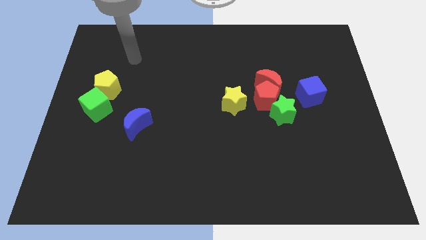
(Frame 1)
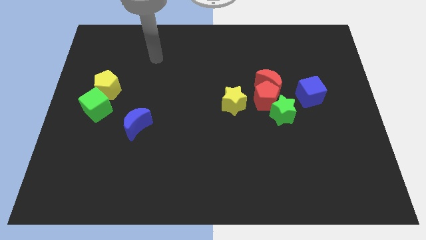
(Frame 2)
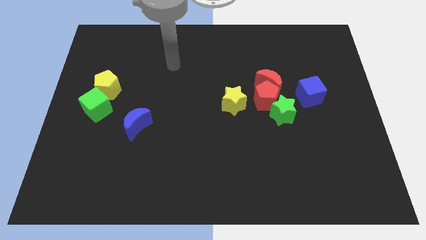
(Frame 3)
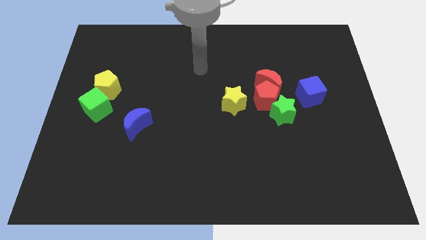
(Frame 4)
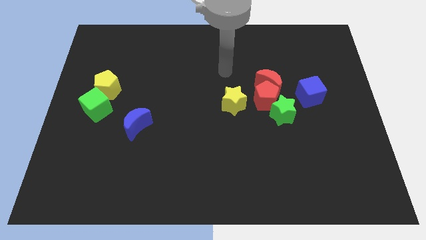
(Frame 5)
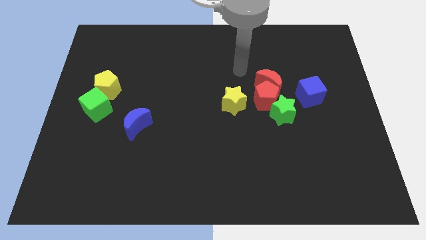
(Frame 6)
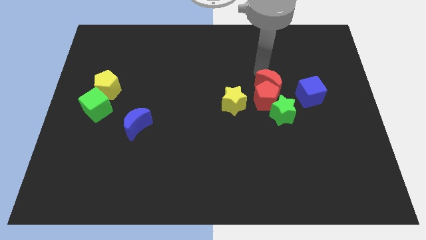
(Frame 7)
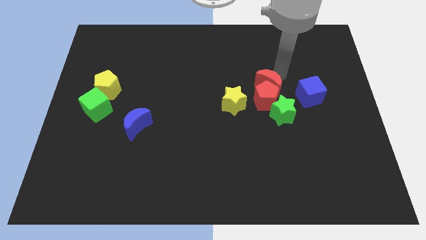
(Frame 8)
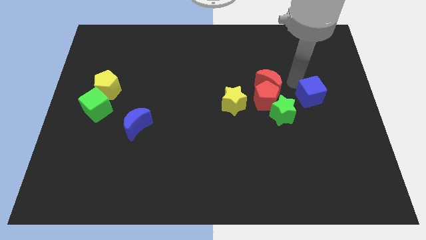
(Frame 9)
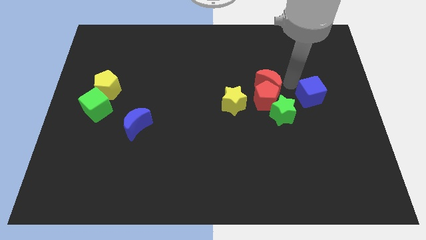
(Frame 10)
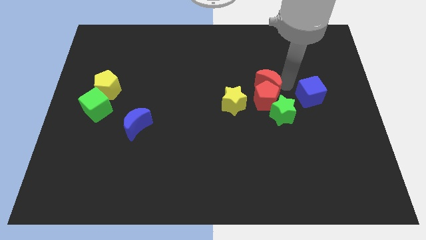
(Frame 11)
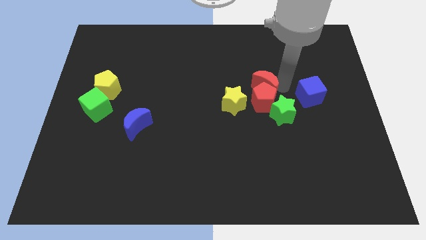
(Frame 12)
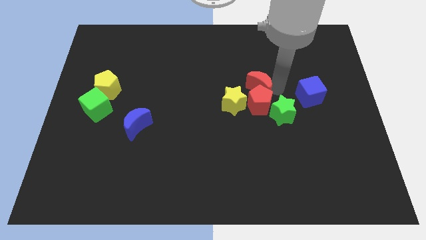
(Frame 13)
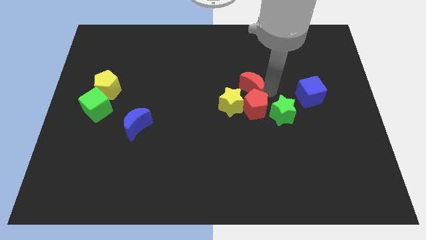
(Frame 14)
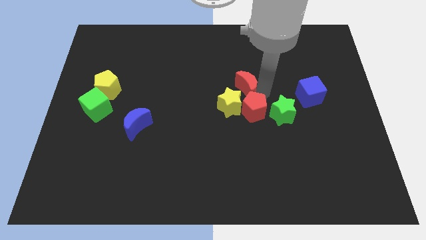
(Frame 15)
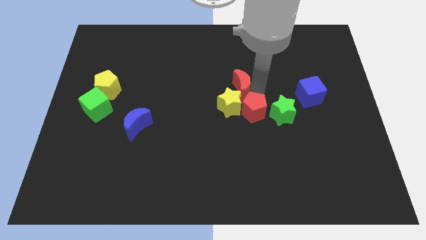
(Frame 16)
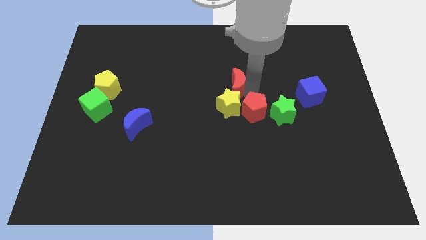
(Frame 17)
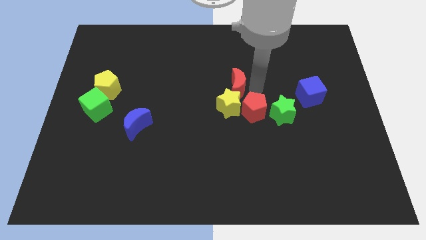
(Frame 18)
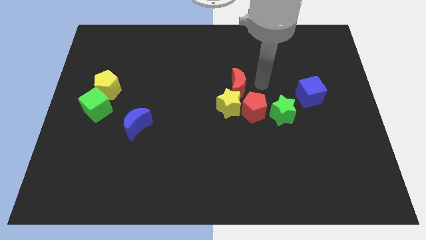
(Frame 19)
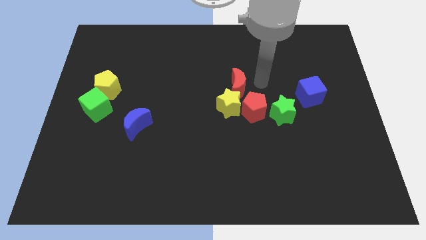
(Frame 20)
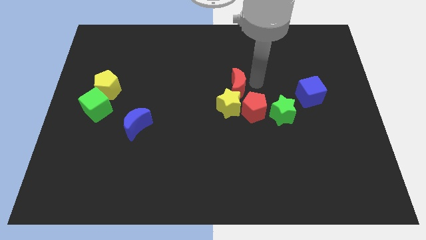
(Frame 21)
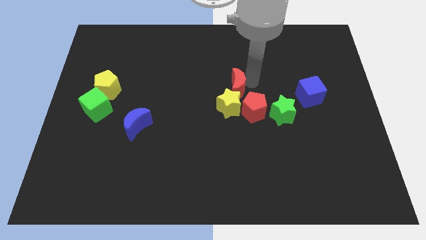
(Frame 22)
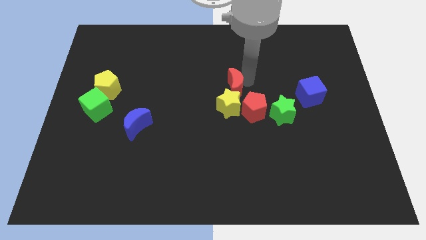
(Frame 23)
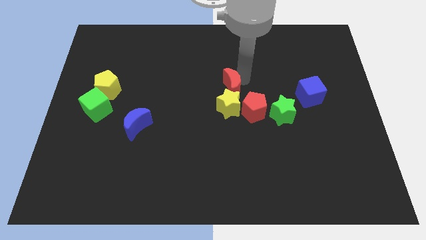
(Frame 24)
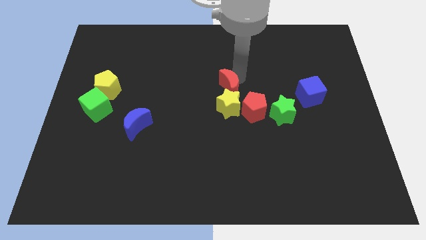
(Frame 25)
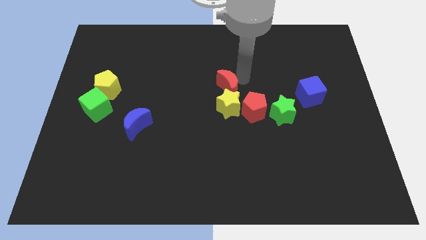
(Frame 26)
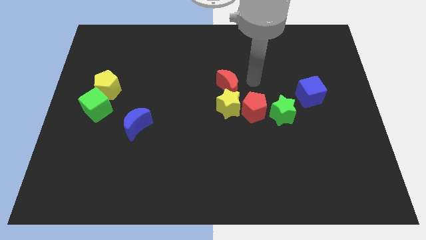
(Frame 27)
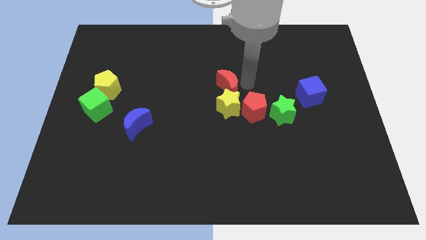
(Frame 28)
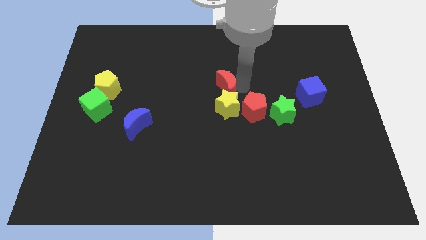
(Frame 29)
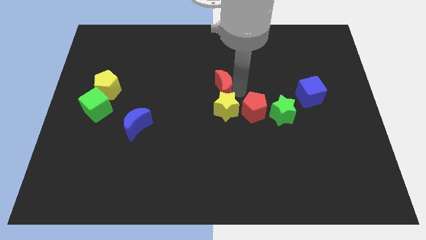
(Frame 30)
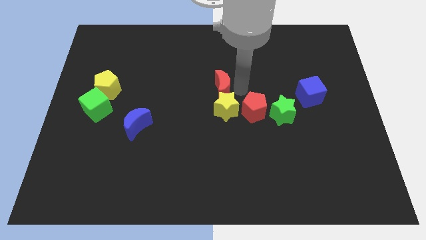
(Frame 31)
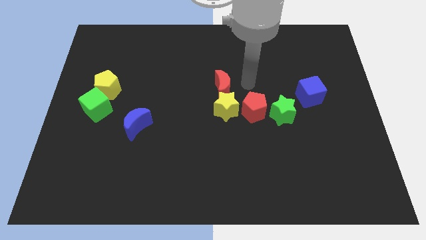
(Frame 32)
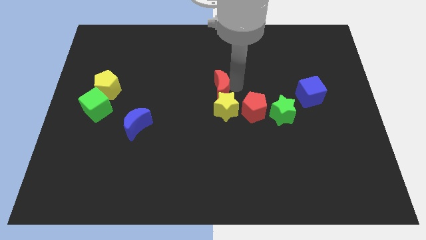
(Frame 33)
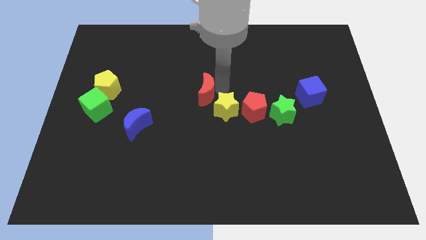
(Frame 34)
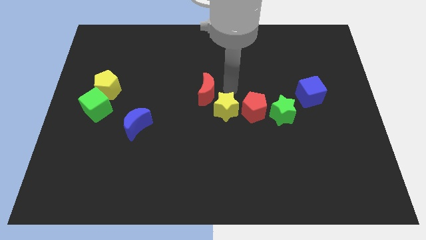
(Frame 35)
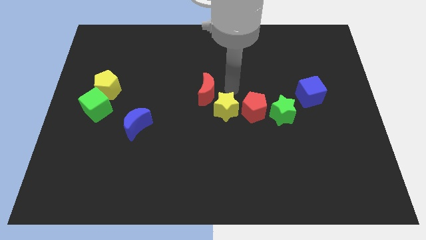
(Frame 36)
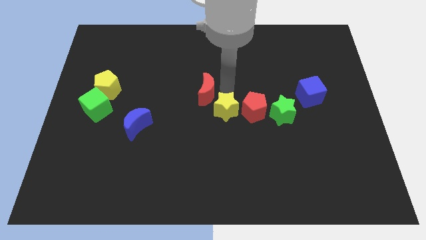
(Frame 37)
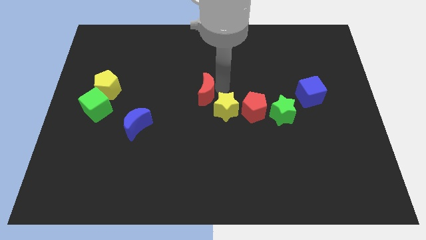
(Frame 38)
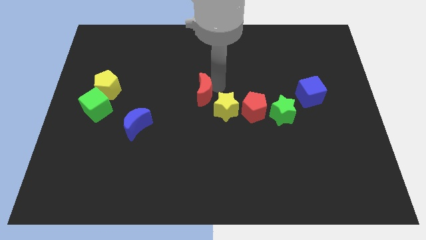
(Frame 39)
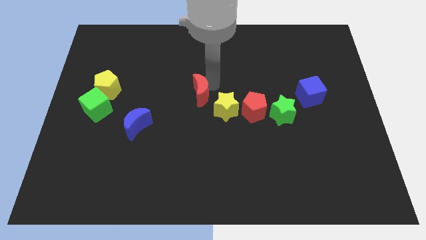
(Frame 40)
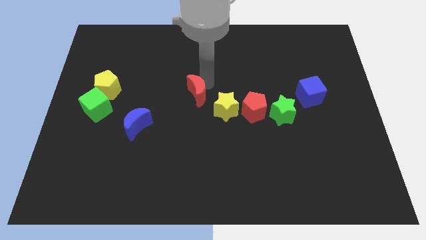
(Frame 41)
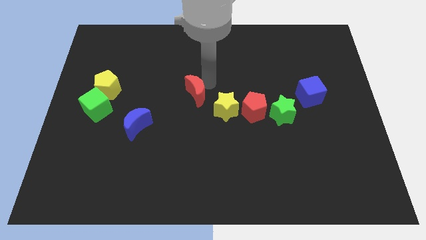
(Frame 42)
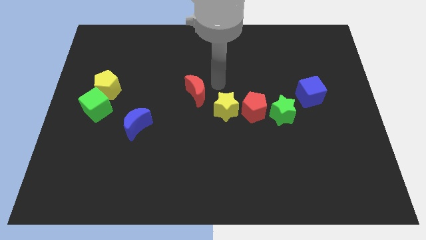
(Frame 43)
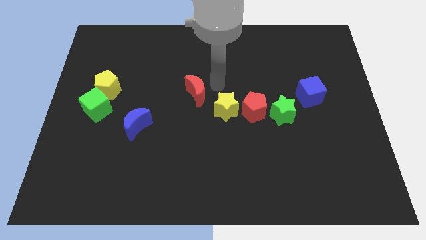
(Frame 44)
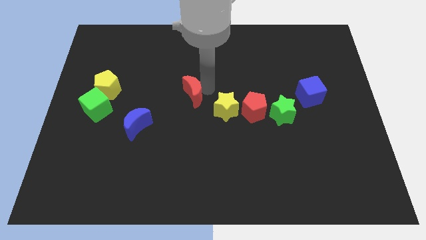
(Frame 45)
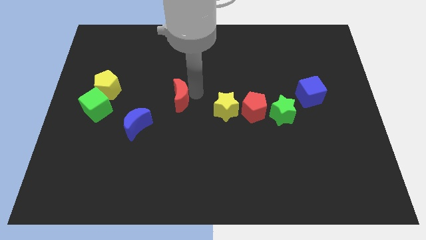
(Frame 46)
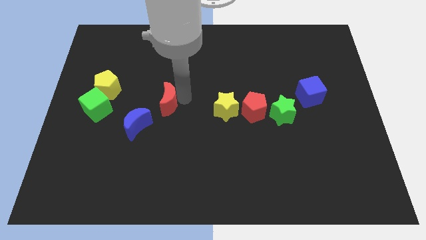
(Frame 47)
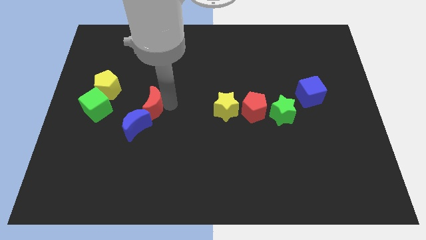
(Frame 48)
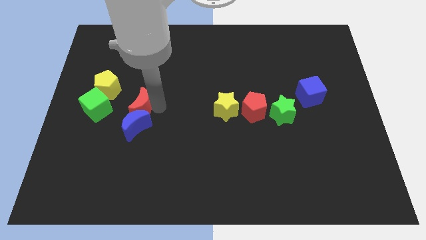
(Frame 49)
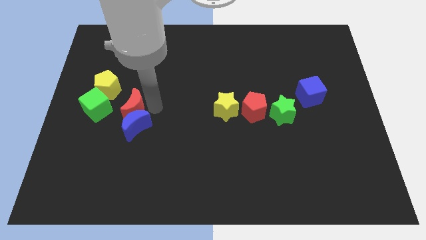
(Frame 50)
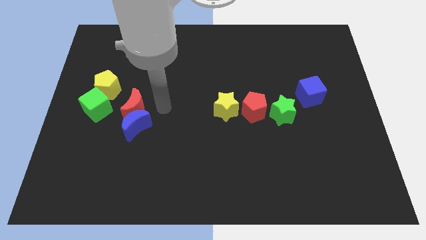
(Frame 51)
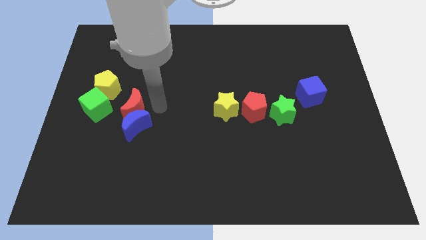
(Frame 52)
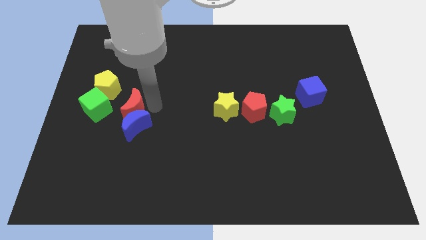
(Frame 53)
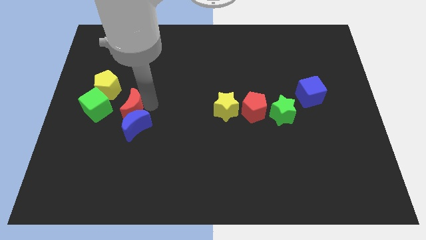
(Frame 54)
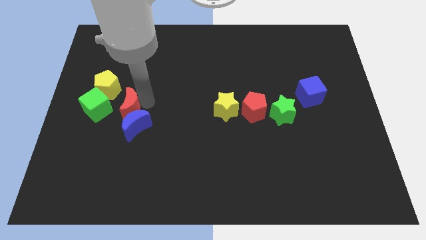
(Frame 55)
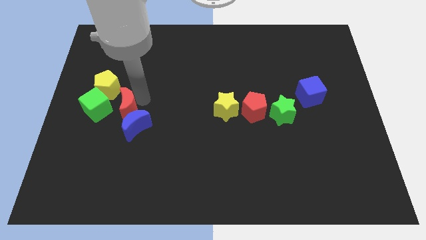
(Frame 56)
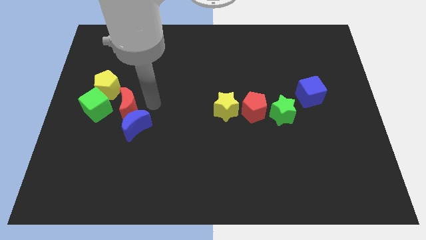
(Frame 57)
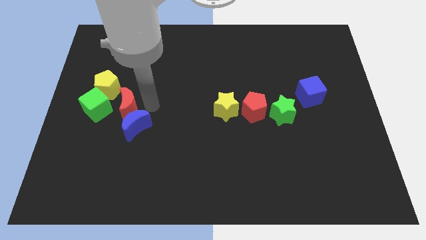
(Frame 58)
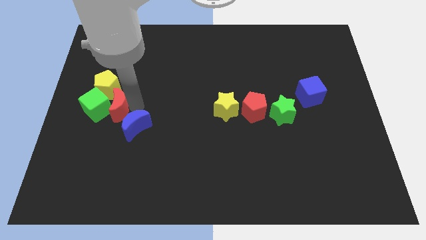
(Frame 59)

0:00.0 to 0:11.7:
put the red moon close to the green cube

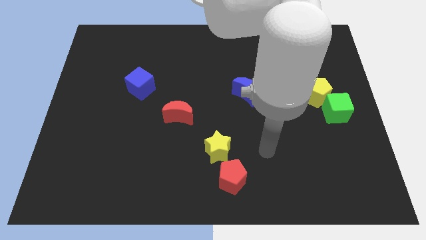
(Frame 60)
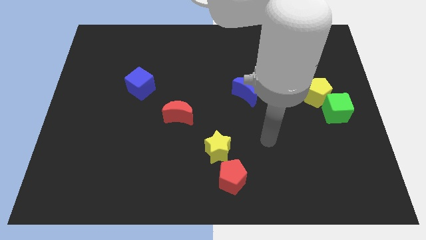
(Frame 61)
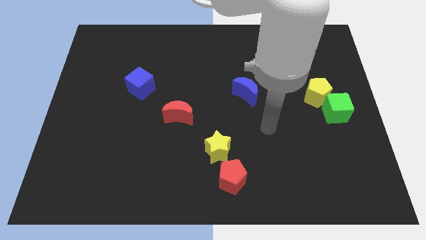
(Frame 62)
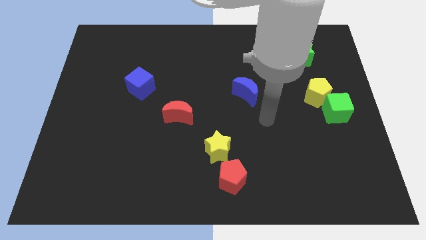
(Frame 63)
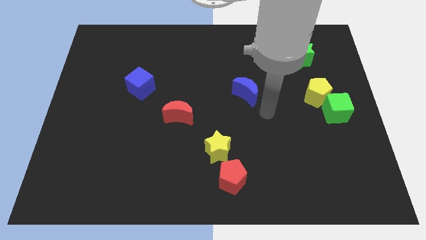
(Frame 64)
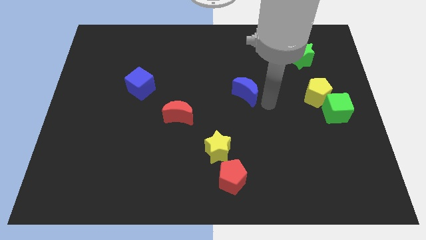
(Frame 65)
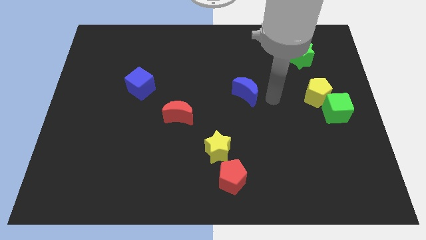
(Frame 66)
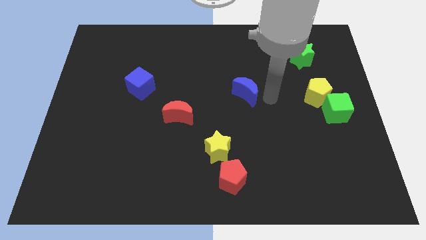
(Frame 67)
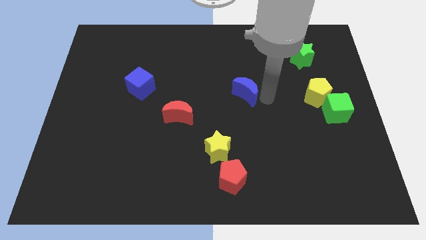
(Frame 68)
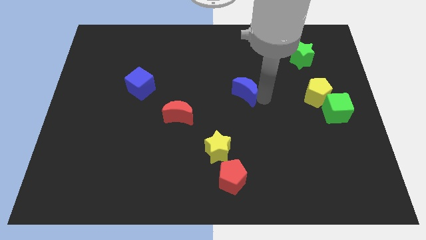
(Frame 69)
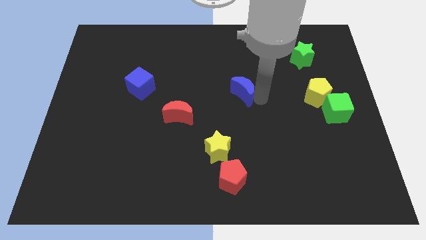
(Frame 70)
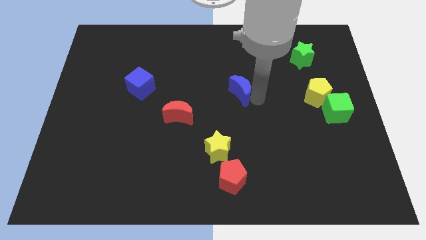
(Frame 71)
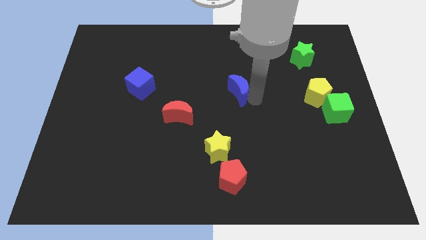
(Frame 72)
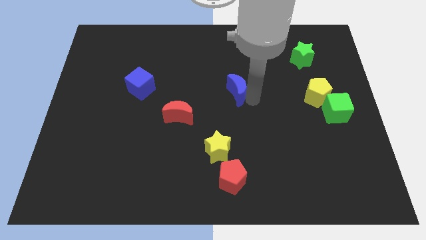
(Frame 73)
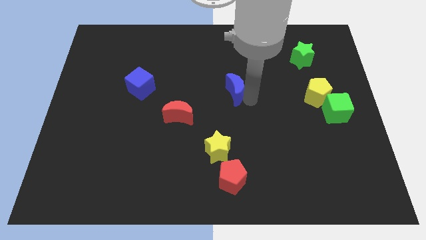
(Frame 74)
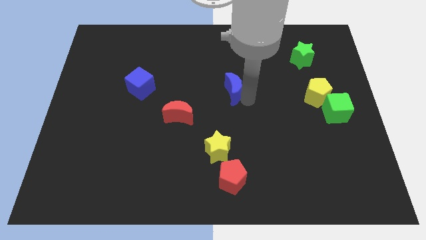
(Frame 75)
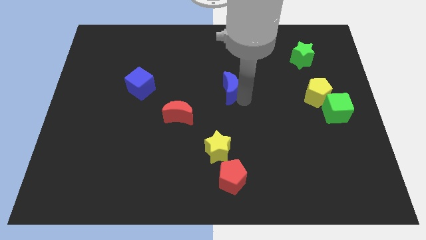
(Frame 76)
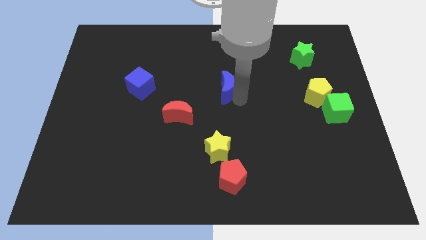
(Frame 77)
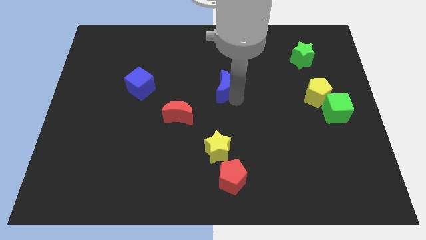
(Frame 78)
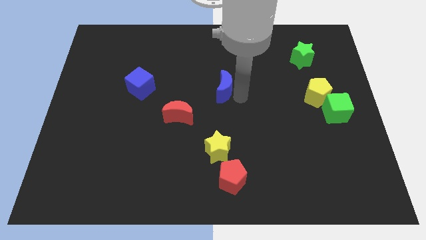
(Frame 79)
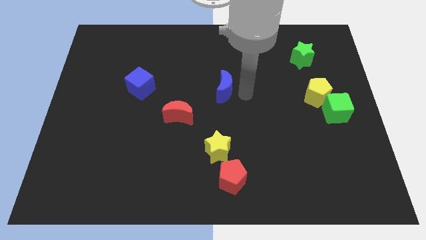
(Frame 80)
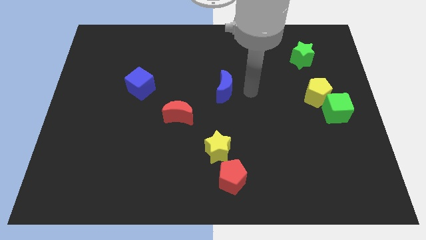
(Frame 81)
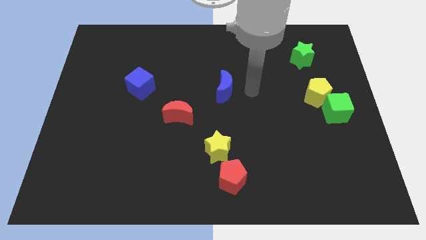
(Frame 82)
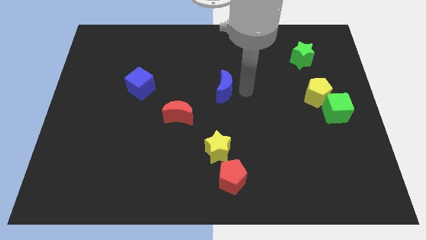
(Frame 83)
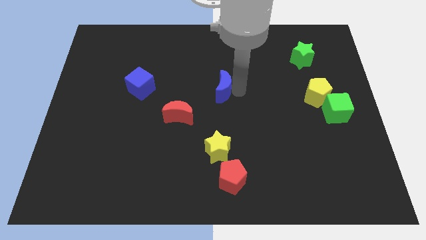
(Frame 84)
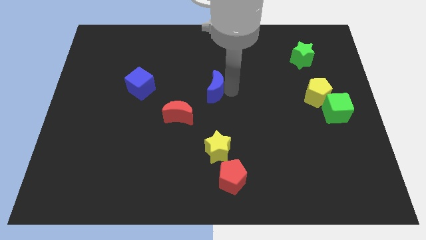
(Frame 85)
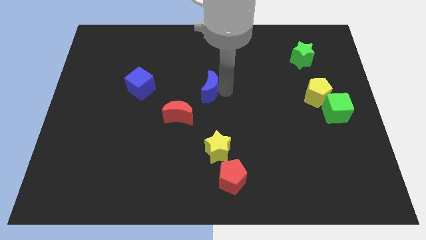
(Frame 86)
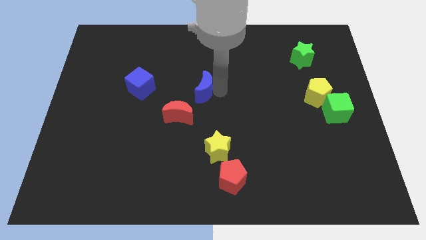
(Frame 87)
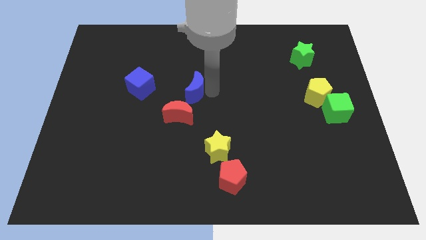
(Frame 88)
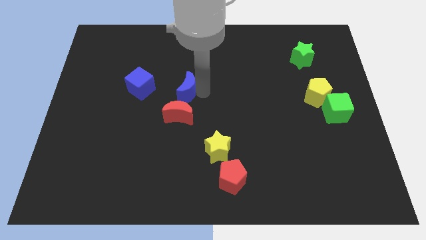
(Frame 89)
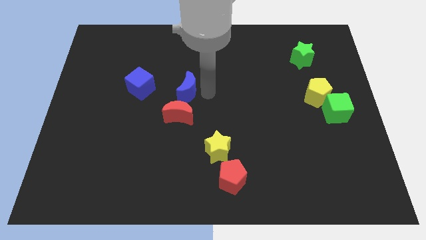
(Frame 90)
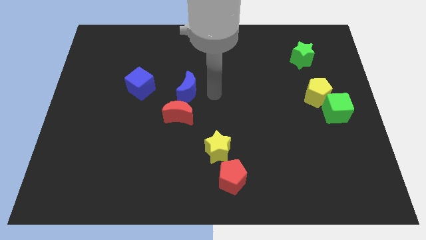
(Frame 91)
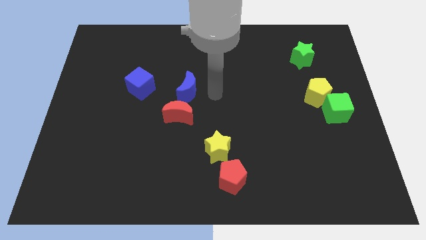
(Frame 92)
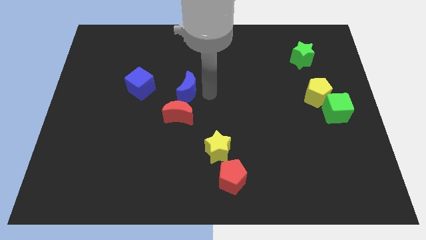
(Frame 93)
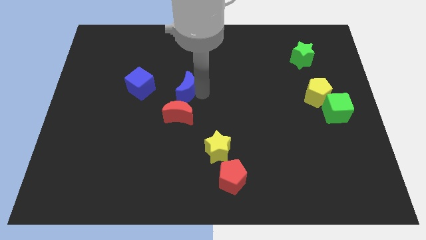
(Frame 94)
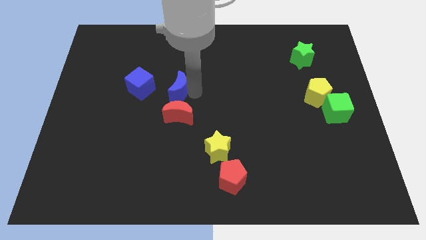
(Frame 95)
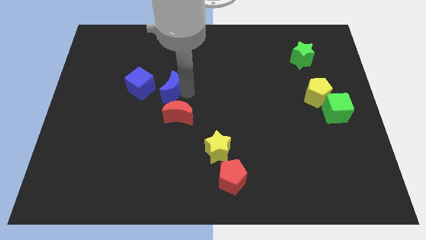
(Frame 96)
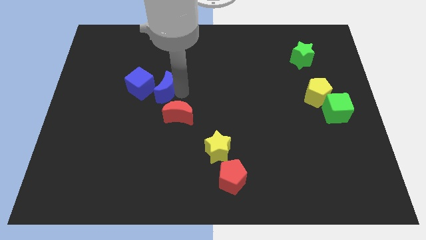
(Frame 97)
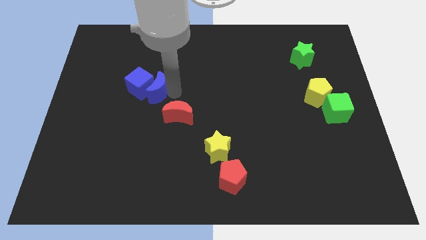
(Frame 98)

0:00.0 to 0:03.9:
move the blue moon next to the blue cube
